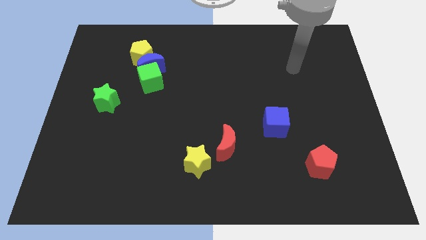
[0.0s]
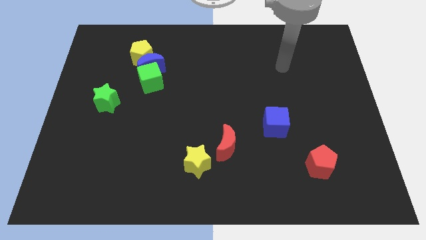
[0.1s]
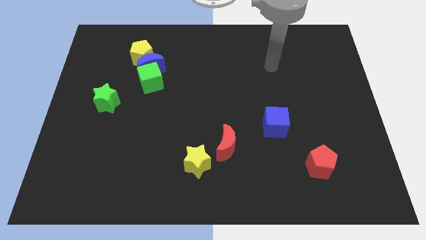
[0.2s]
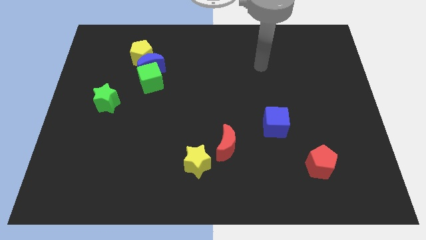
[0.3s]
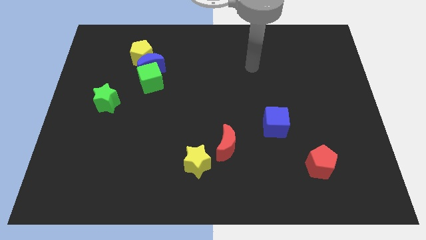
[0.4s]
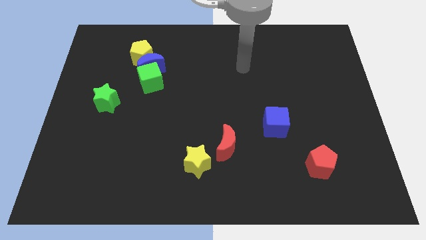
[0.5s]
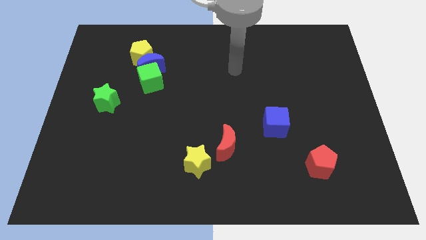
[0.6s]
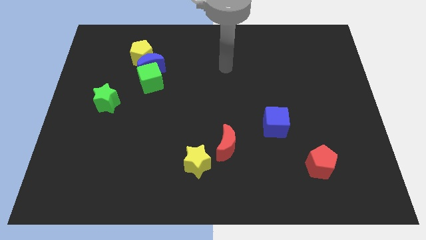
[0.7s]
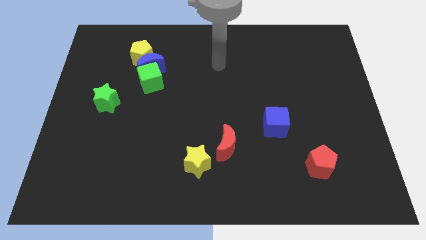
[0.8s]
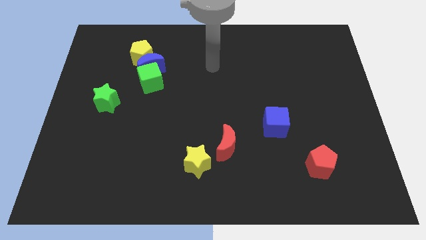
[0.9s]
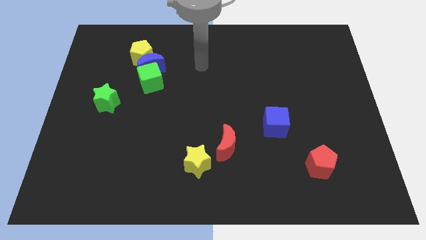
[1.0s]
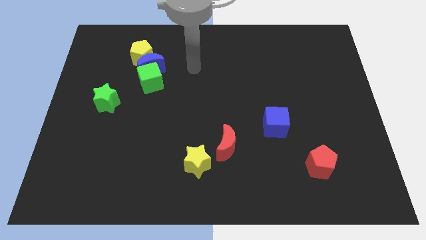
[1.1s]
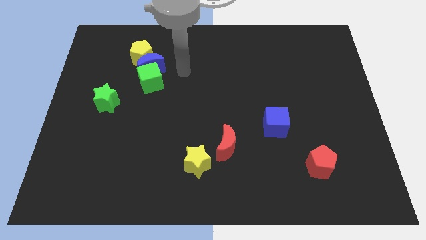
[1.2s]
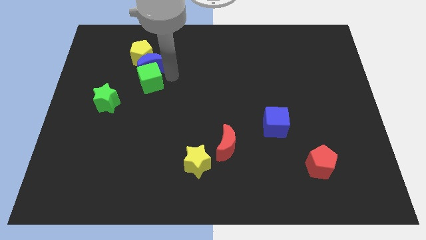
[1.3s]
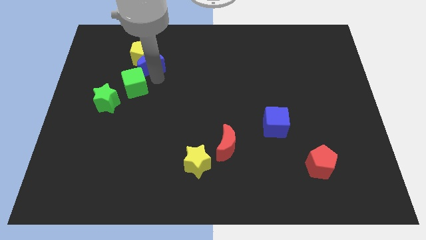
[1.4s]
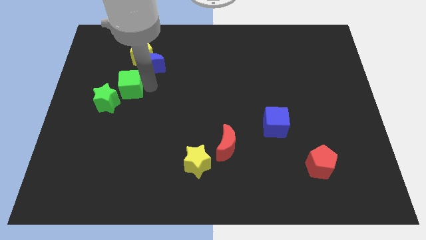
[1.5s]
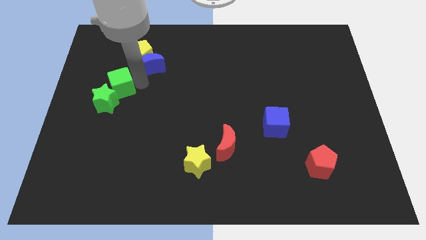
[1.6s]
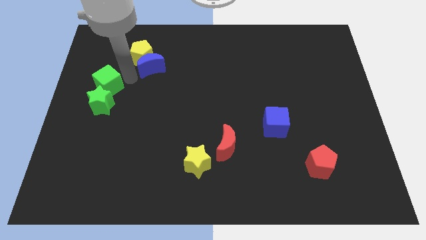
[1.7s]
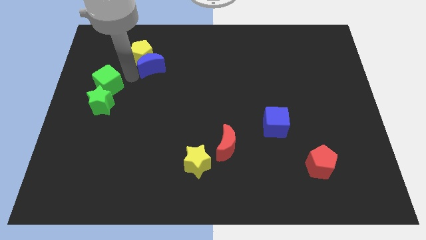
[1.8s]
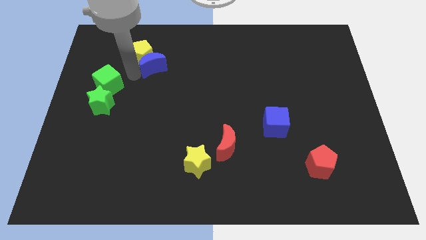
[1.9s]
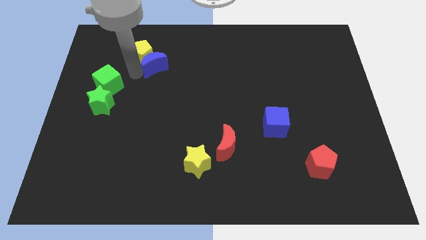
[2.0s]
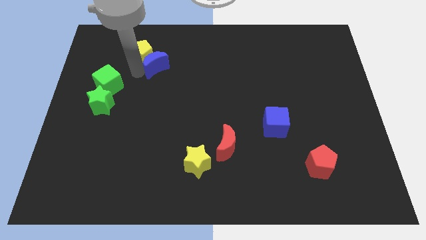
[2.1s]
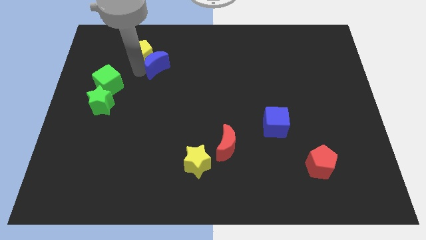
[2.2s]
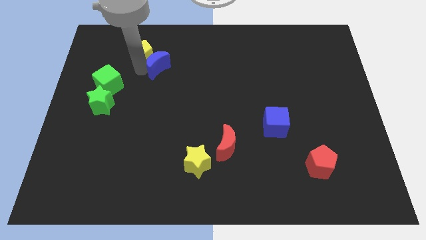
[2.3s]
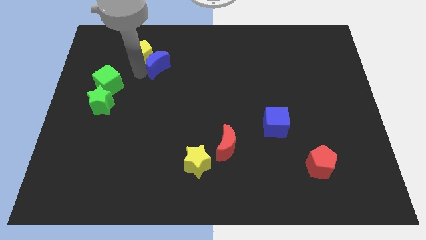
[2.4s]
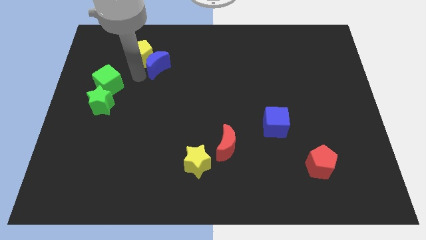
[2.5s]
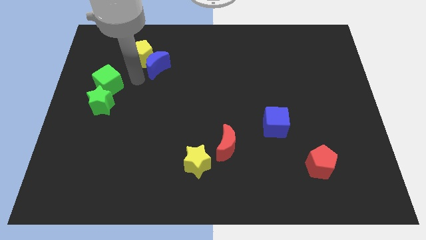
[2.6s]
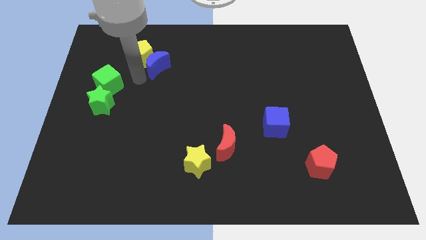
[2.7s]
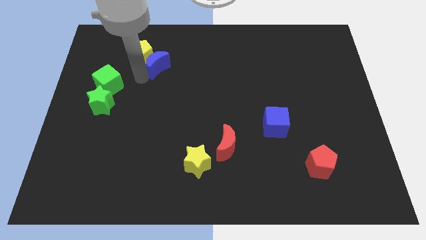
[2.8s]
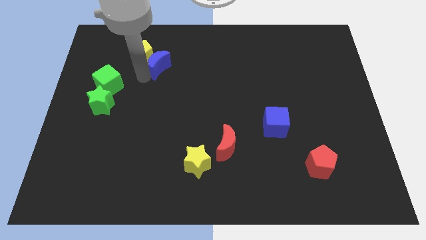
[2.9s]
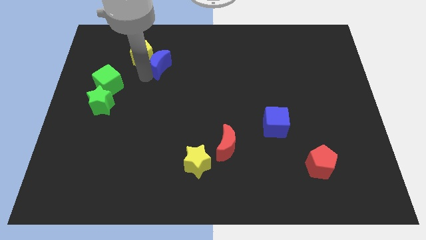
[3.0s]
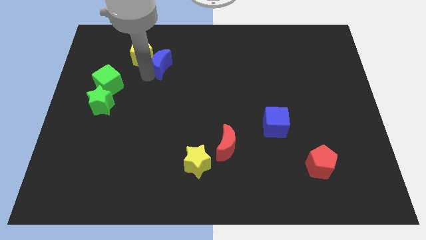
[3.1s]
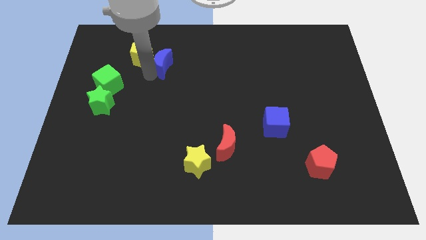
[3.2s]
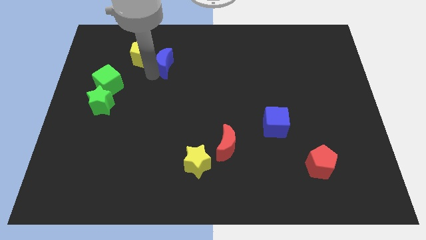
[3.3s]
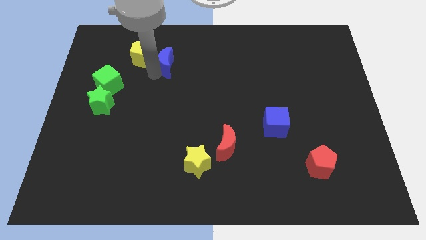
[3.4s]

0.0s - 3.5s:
pull the blue moon apart from the yellow pentagon and green cube

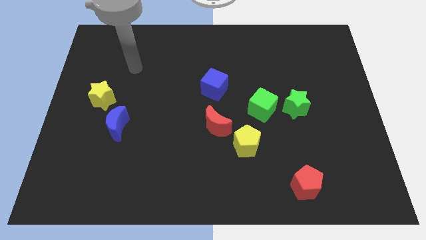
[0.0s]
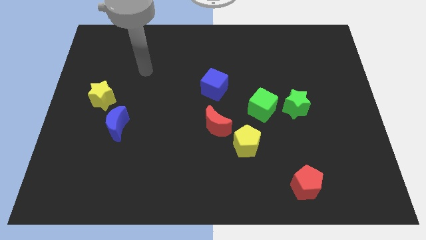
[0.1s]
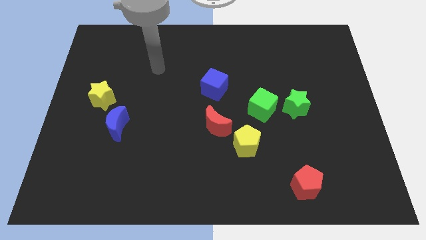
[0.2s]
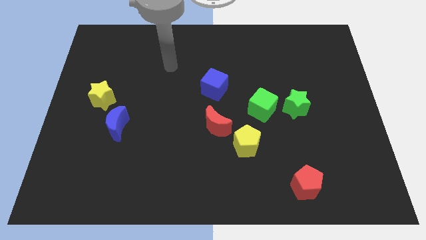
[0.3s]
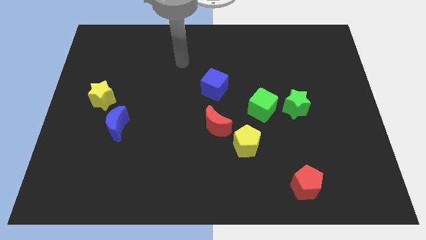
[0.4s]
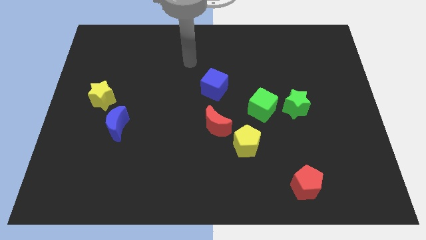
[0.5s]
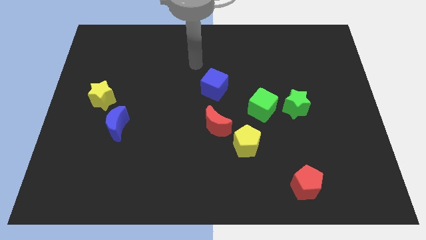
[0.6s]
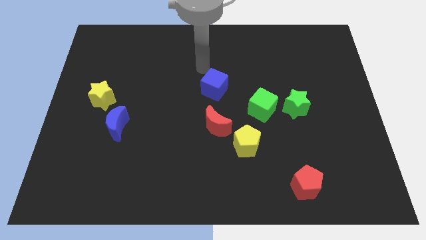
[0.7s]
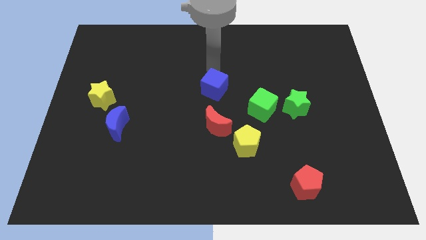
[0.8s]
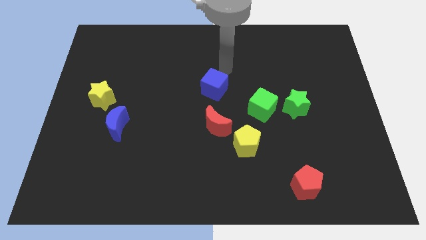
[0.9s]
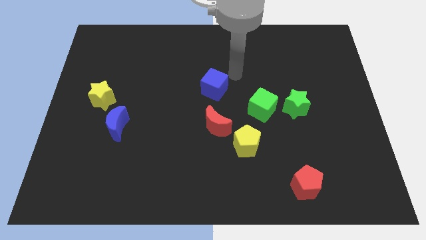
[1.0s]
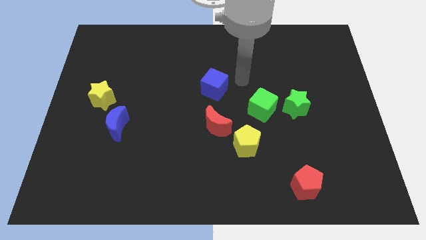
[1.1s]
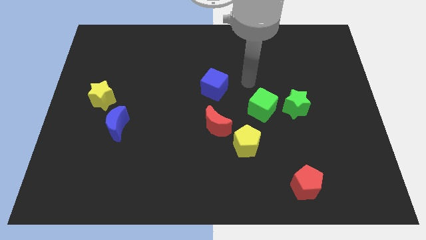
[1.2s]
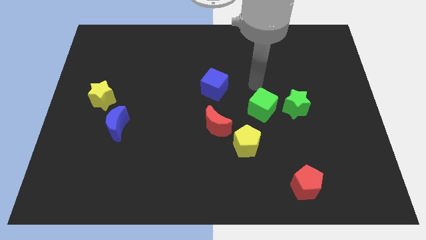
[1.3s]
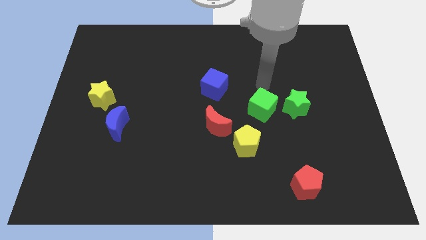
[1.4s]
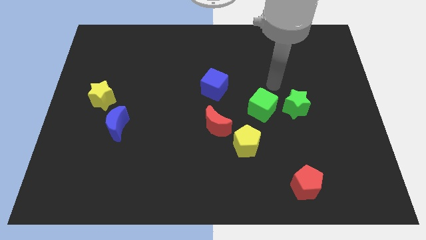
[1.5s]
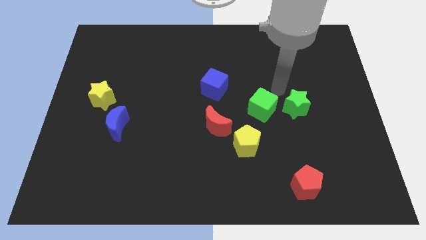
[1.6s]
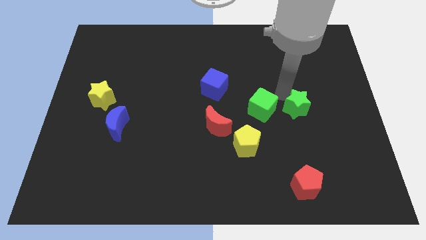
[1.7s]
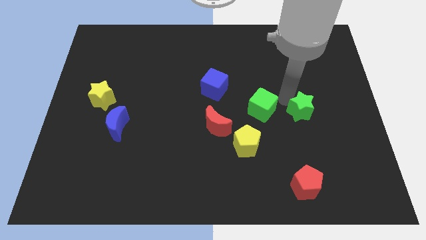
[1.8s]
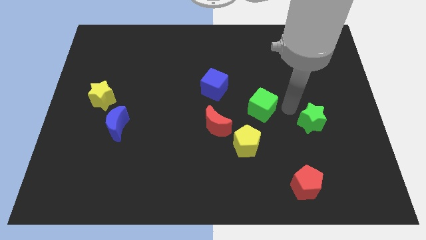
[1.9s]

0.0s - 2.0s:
separate the green cube from the green star

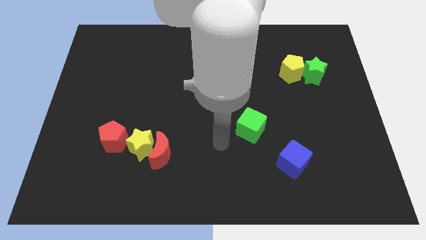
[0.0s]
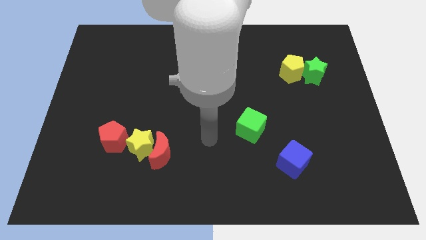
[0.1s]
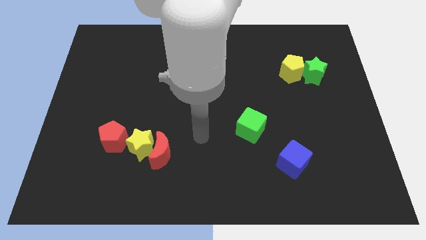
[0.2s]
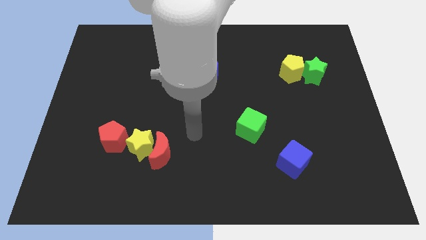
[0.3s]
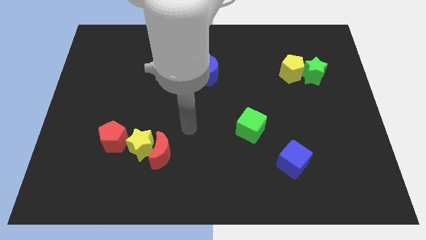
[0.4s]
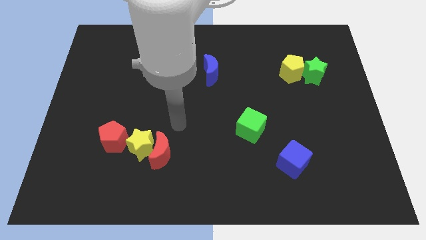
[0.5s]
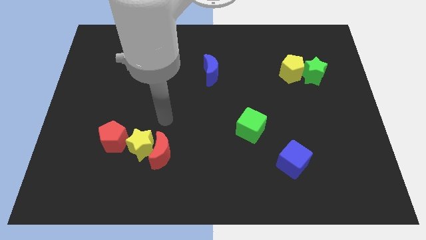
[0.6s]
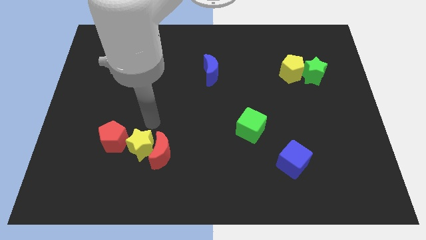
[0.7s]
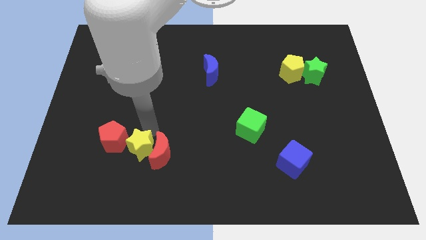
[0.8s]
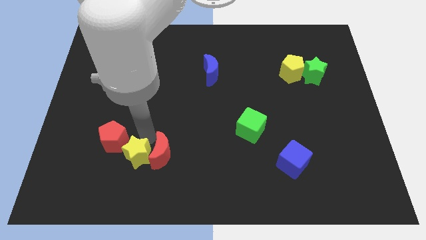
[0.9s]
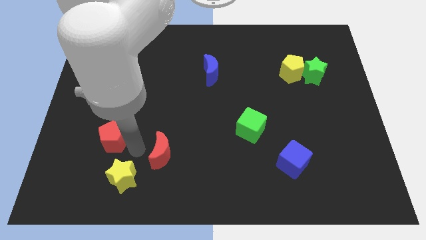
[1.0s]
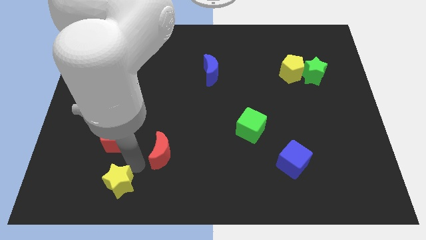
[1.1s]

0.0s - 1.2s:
move the red moon away from the yellow star

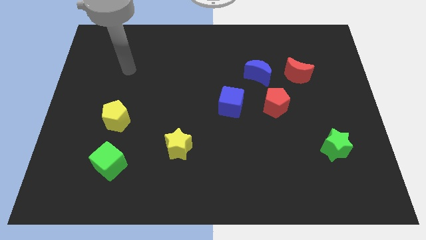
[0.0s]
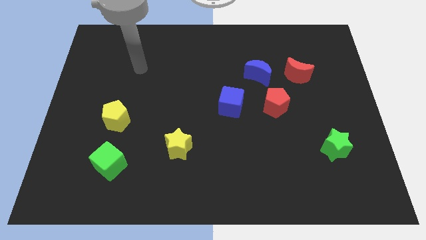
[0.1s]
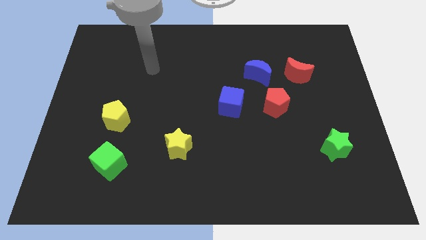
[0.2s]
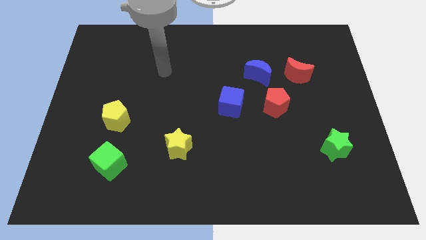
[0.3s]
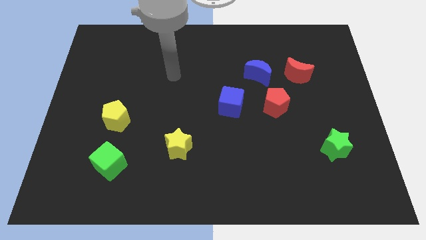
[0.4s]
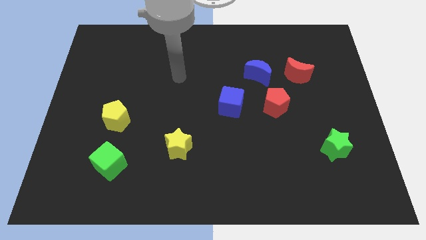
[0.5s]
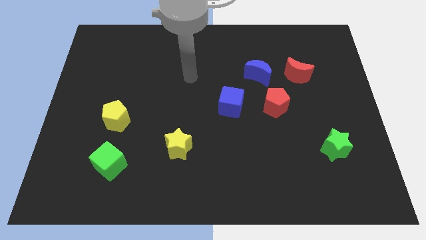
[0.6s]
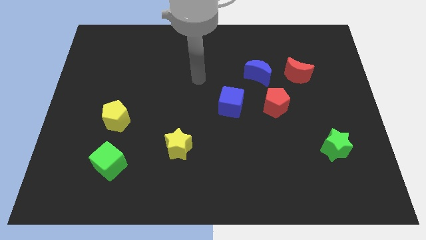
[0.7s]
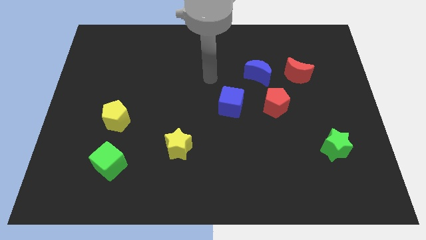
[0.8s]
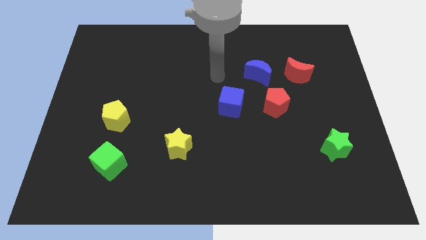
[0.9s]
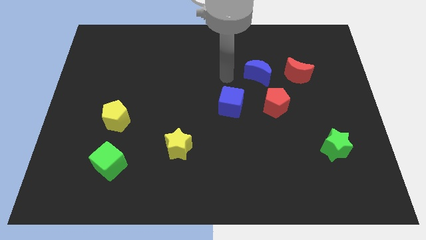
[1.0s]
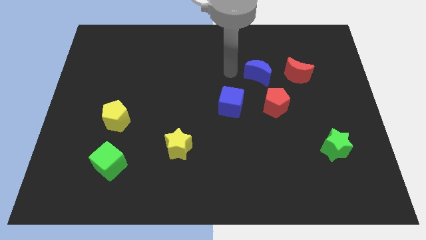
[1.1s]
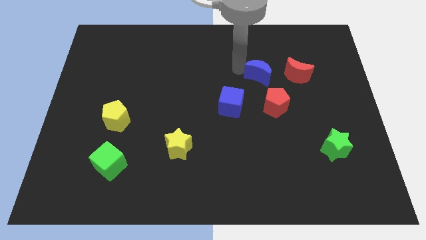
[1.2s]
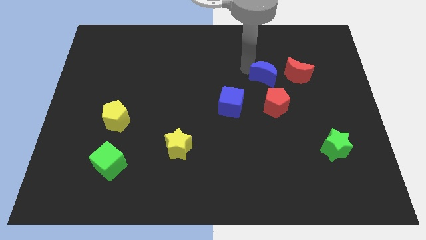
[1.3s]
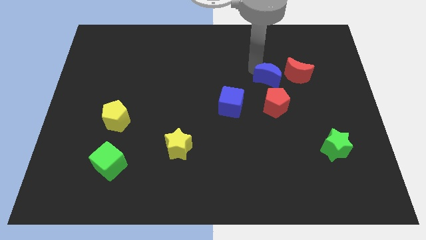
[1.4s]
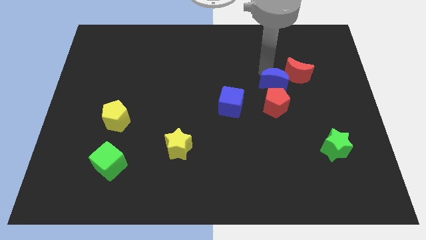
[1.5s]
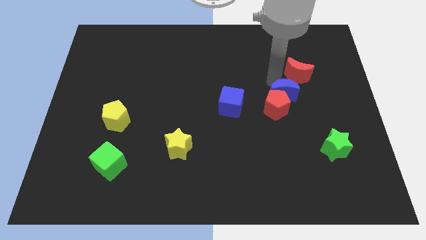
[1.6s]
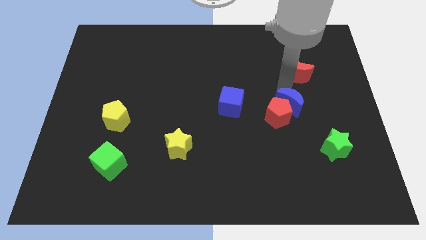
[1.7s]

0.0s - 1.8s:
separate the red moon from the blue moon

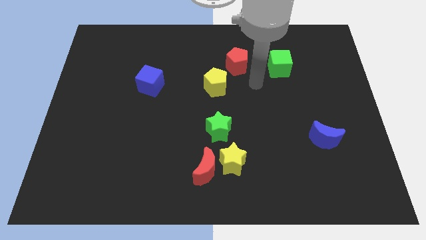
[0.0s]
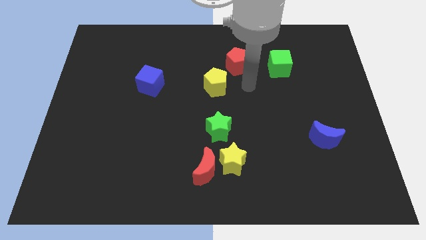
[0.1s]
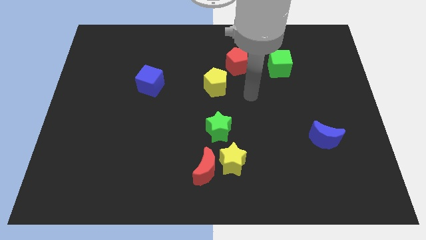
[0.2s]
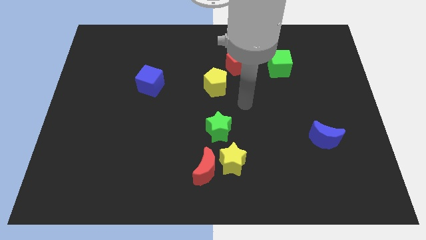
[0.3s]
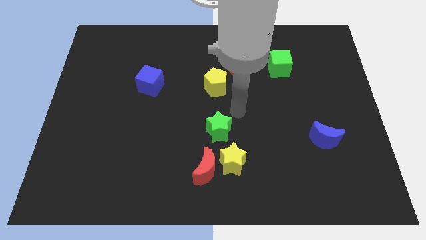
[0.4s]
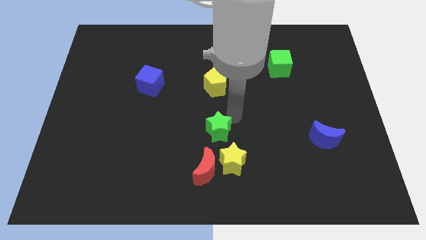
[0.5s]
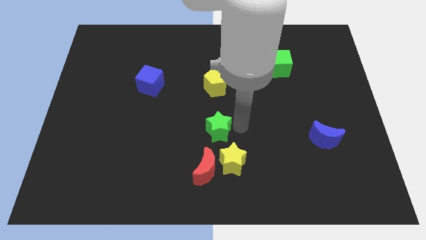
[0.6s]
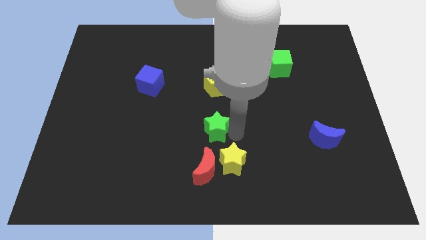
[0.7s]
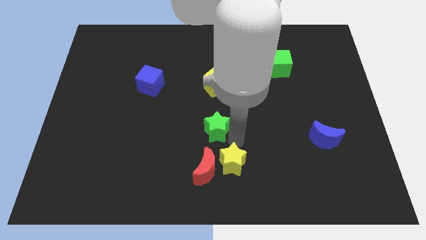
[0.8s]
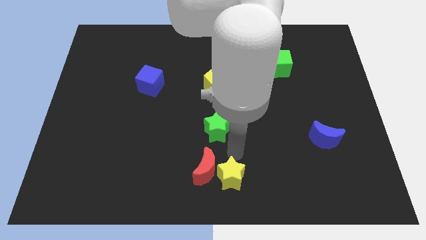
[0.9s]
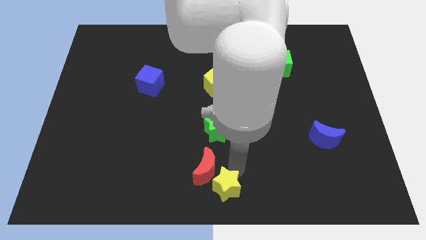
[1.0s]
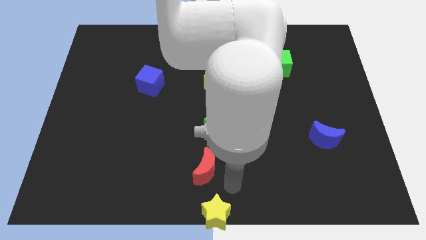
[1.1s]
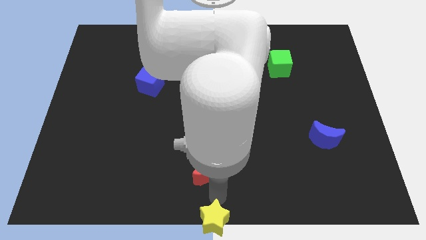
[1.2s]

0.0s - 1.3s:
separate the red moon from the yellow star
